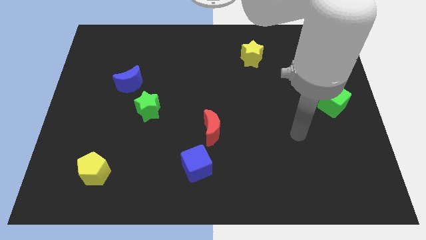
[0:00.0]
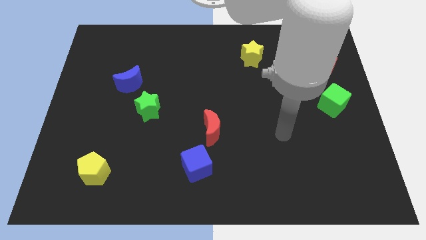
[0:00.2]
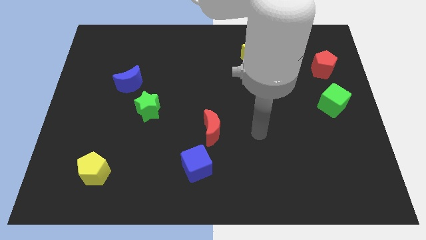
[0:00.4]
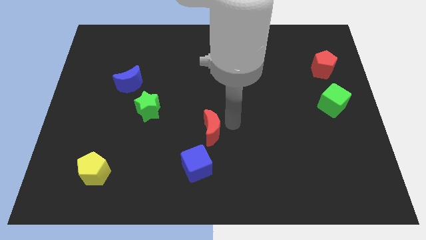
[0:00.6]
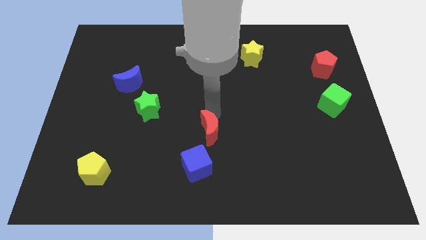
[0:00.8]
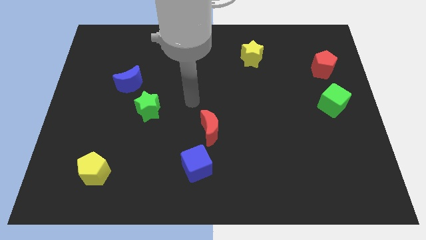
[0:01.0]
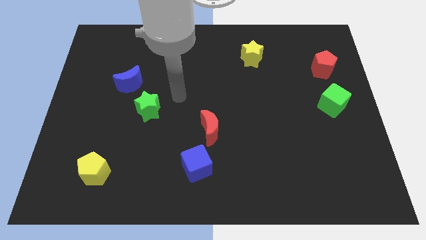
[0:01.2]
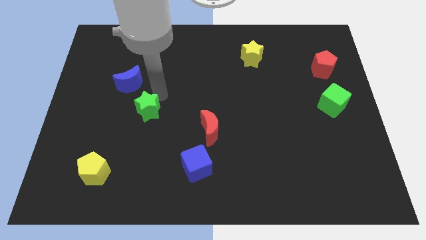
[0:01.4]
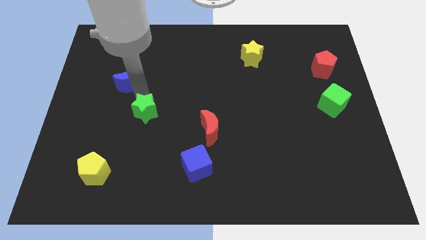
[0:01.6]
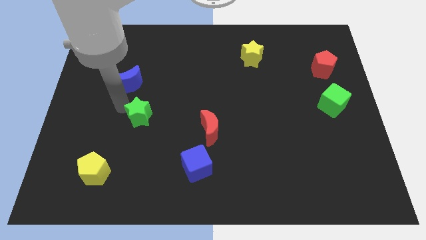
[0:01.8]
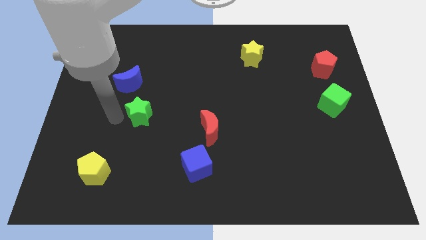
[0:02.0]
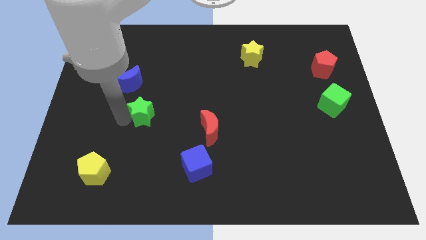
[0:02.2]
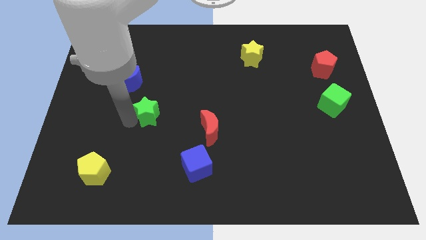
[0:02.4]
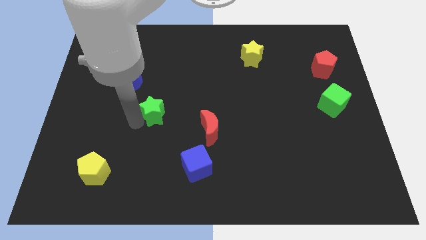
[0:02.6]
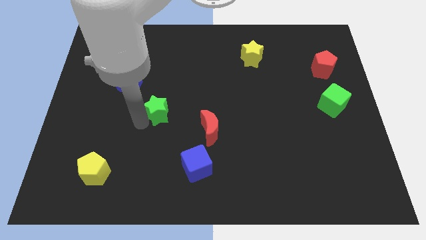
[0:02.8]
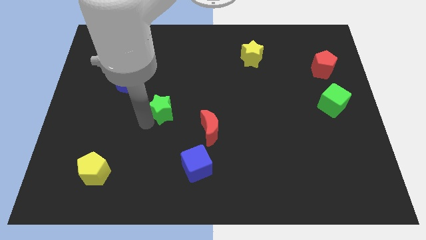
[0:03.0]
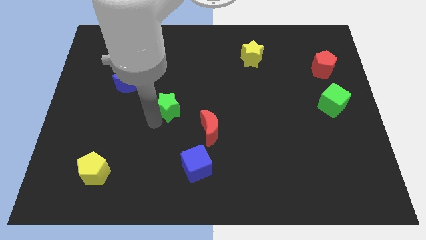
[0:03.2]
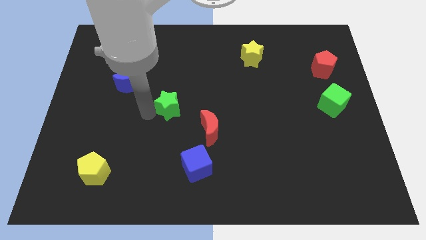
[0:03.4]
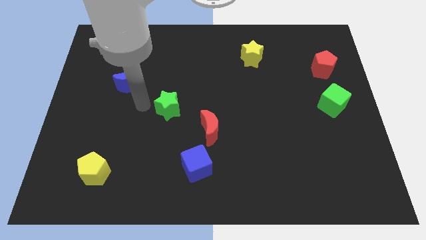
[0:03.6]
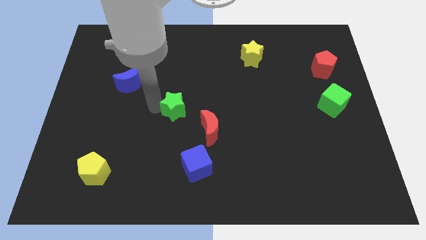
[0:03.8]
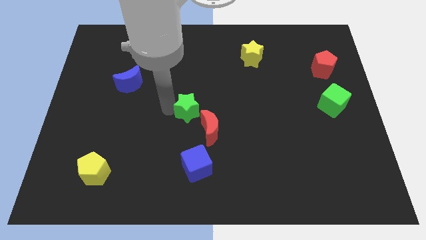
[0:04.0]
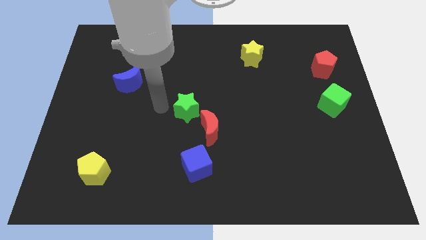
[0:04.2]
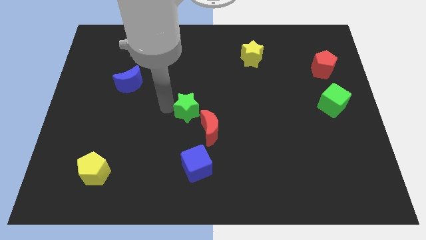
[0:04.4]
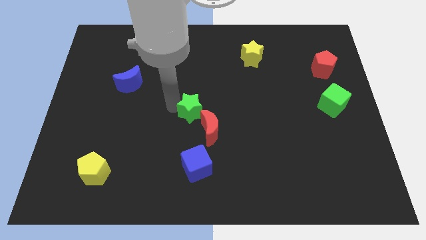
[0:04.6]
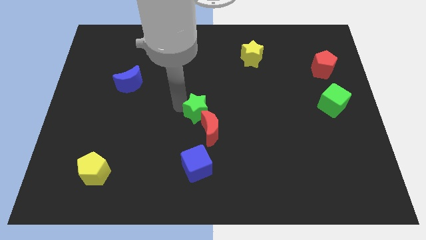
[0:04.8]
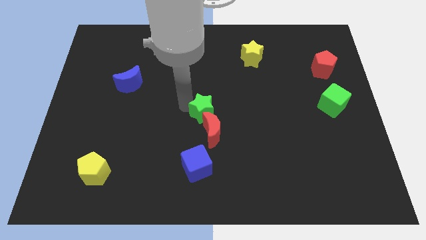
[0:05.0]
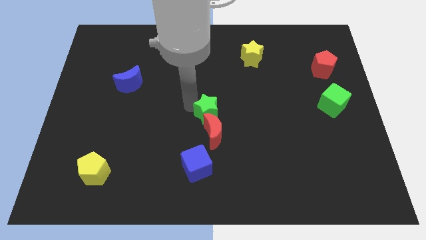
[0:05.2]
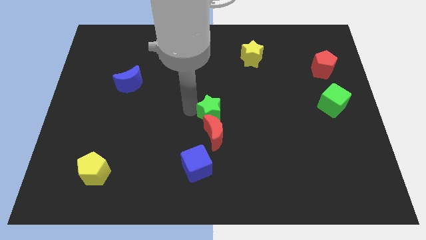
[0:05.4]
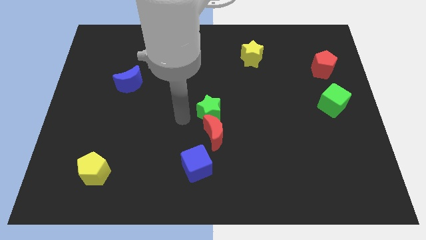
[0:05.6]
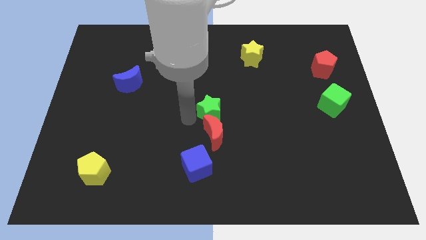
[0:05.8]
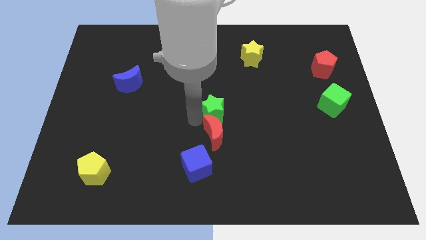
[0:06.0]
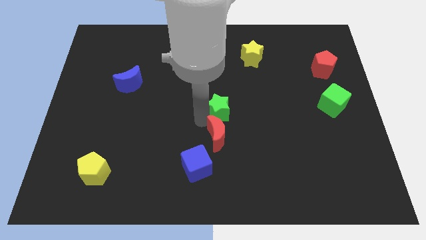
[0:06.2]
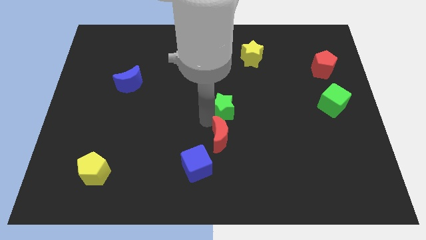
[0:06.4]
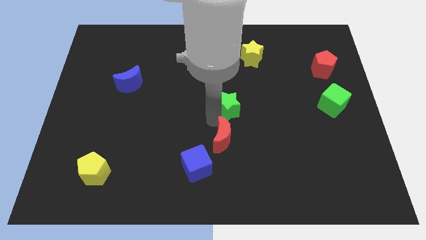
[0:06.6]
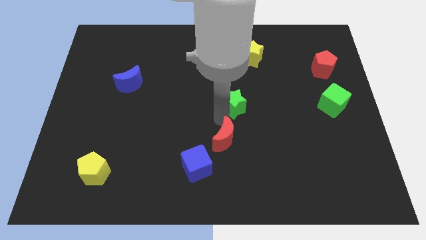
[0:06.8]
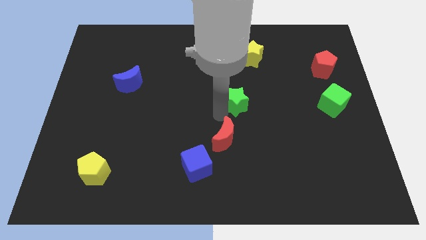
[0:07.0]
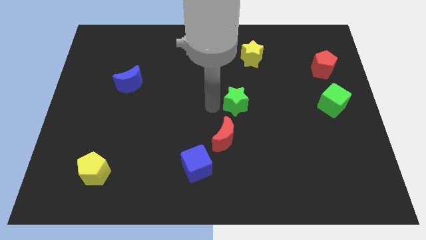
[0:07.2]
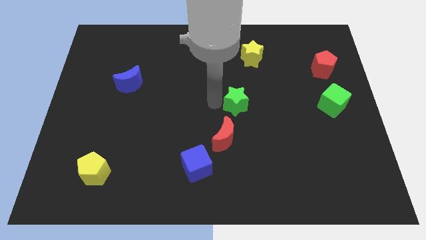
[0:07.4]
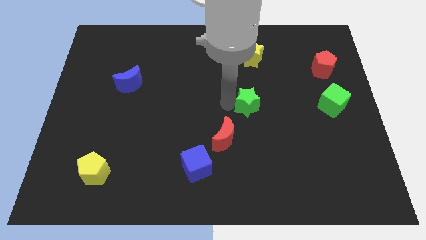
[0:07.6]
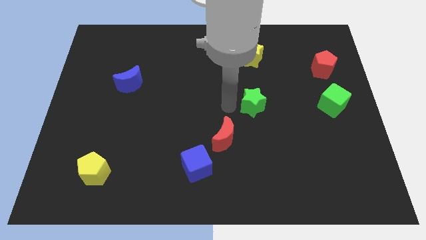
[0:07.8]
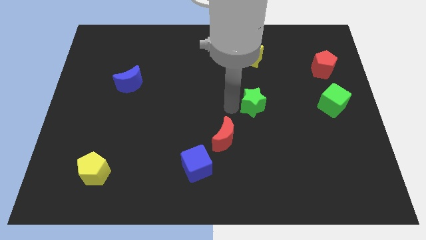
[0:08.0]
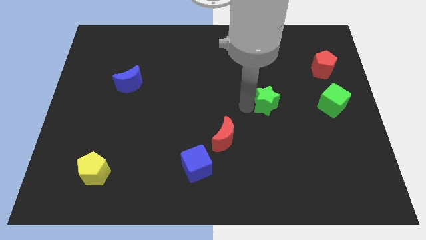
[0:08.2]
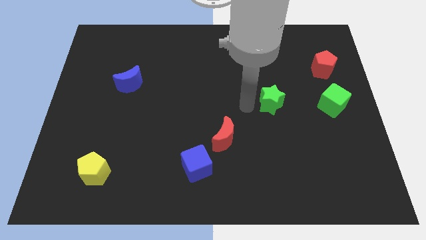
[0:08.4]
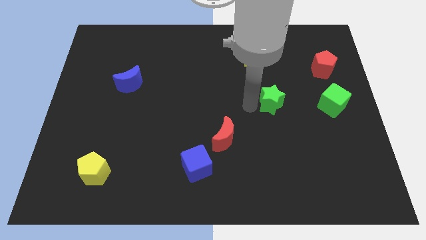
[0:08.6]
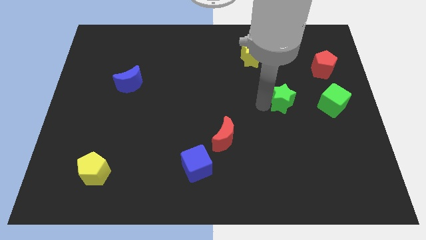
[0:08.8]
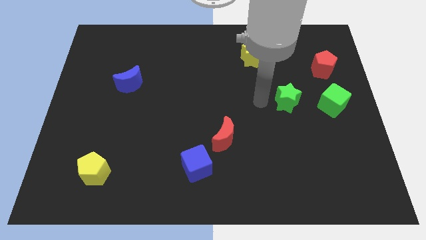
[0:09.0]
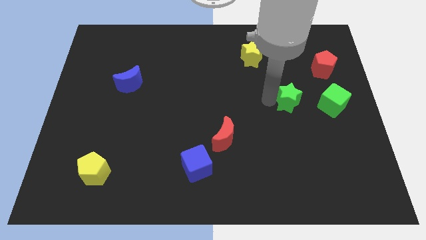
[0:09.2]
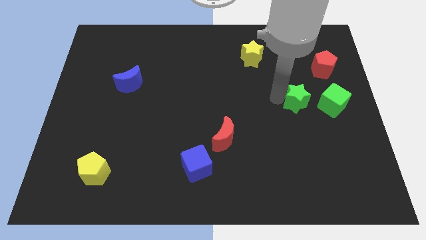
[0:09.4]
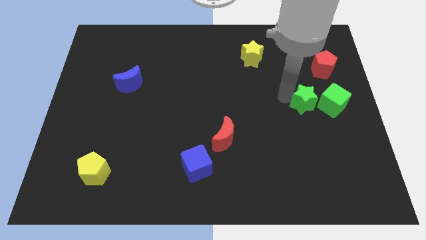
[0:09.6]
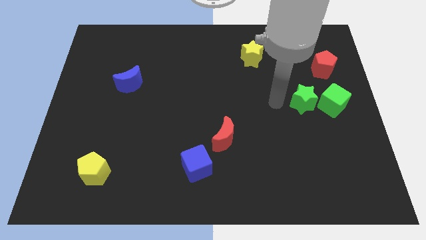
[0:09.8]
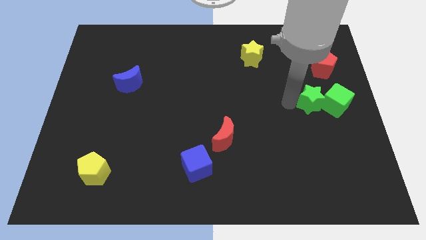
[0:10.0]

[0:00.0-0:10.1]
push the green star next to the green cube

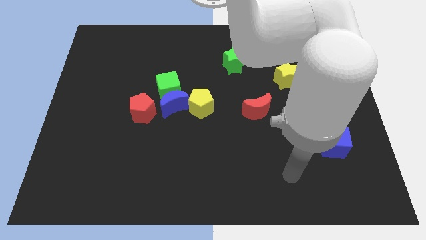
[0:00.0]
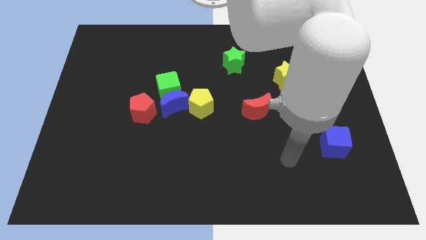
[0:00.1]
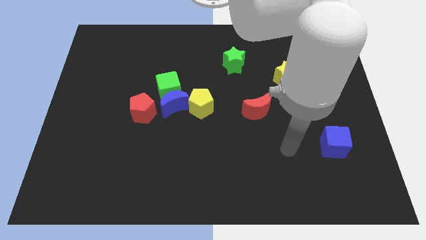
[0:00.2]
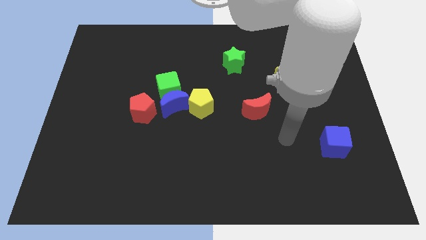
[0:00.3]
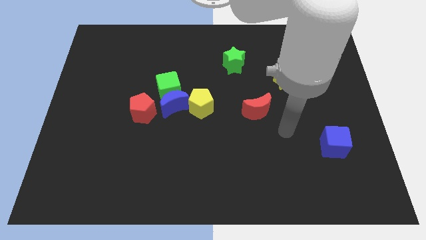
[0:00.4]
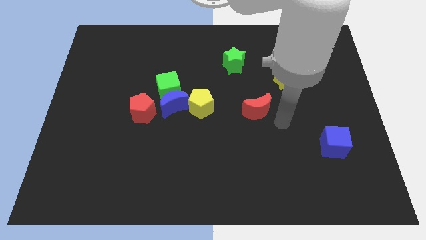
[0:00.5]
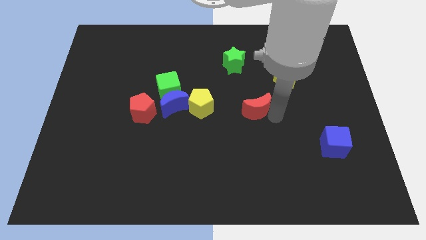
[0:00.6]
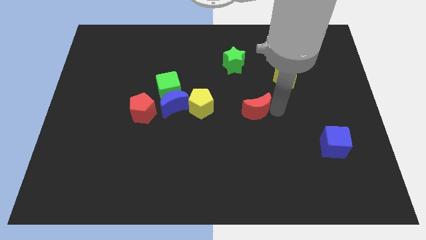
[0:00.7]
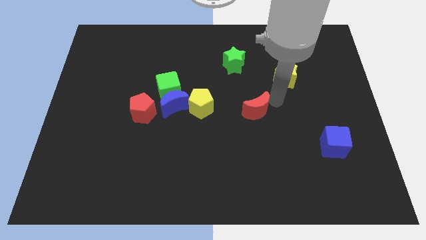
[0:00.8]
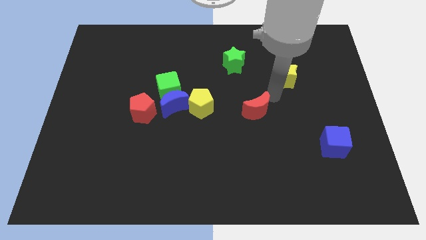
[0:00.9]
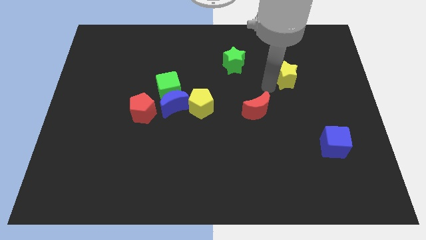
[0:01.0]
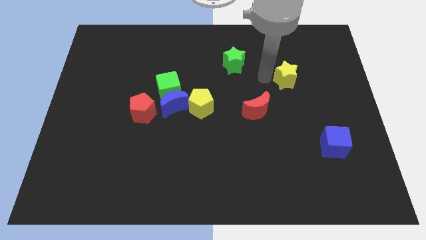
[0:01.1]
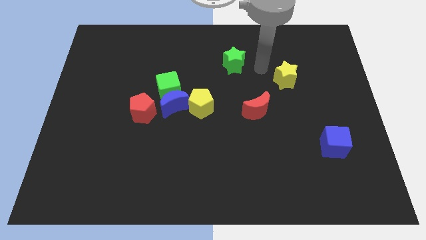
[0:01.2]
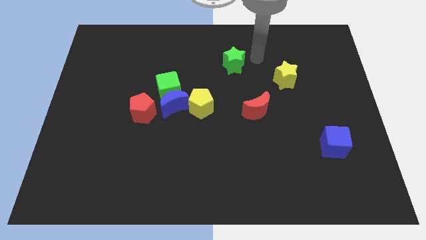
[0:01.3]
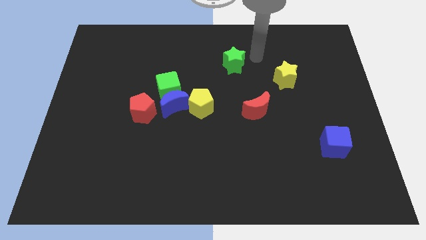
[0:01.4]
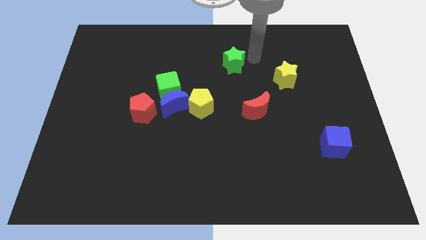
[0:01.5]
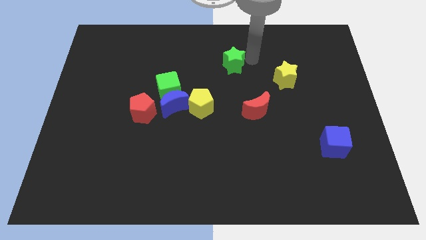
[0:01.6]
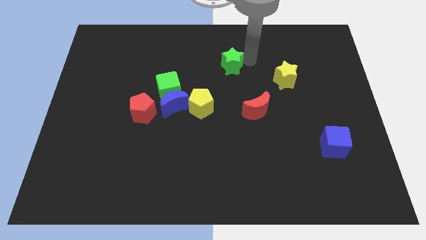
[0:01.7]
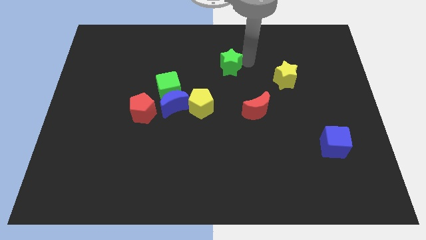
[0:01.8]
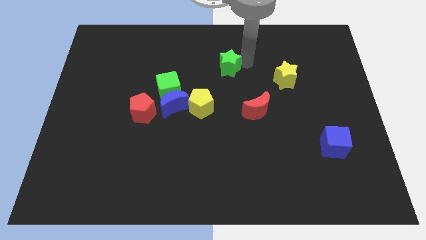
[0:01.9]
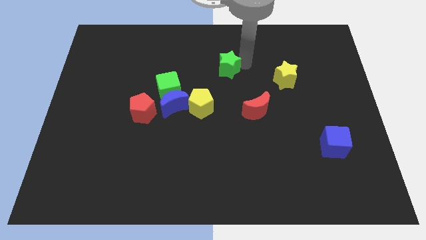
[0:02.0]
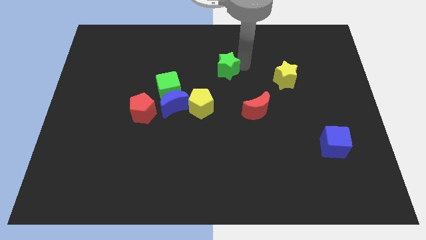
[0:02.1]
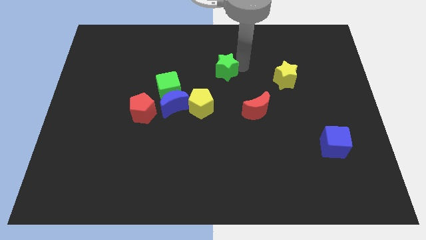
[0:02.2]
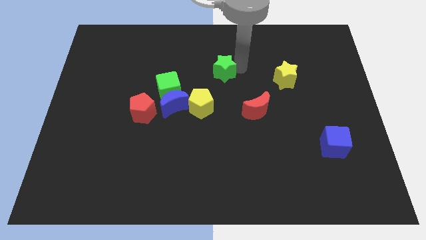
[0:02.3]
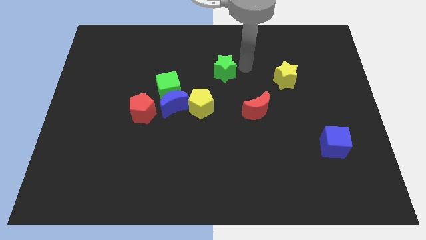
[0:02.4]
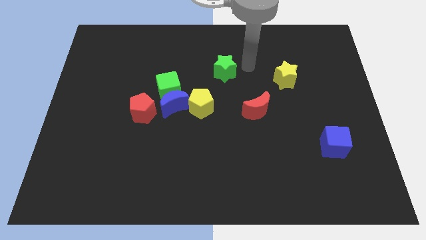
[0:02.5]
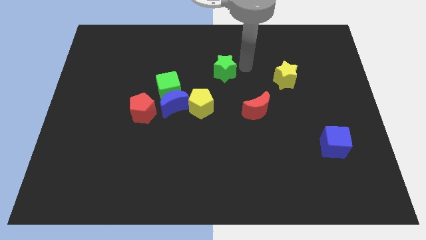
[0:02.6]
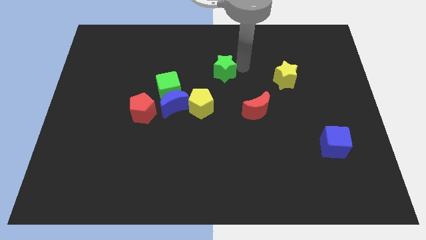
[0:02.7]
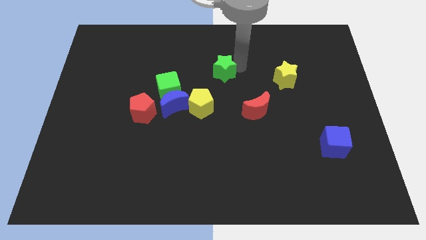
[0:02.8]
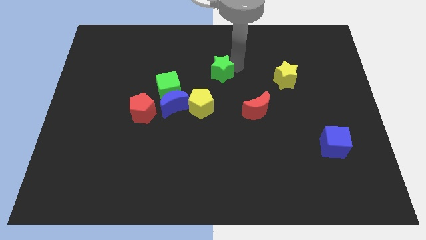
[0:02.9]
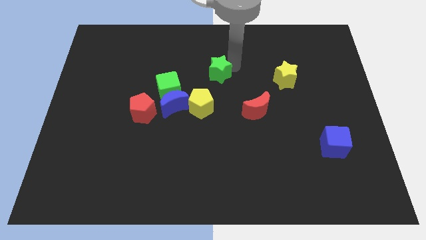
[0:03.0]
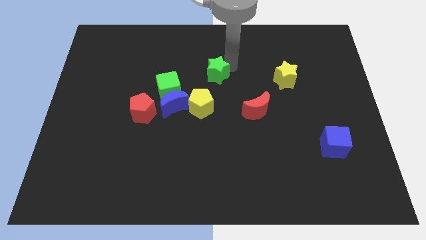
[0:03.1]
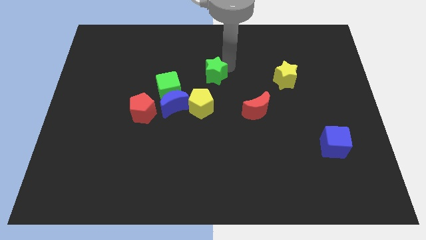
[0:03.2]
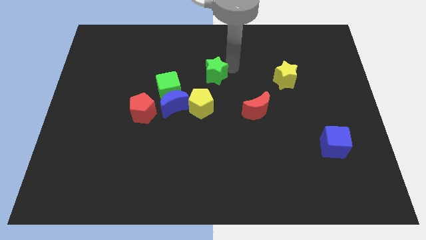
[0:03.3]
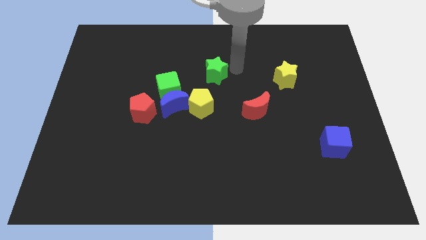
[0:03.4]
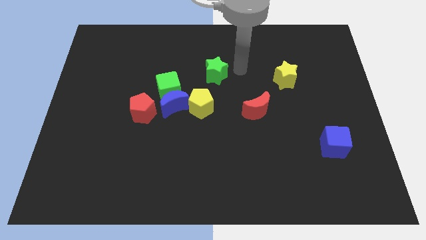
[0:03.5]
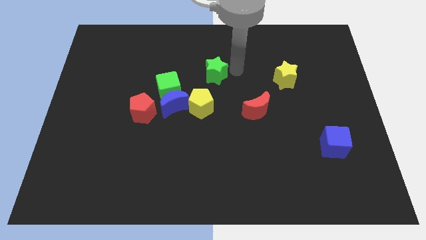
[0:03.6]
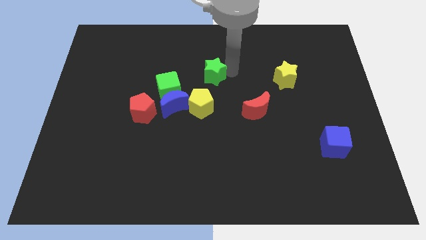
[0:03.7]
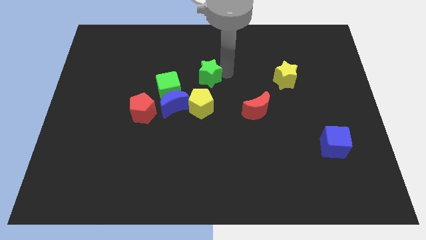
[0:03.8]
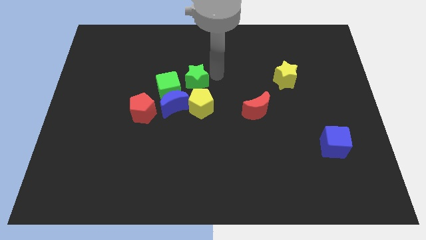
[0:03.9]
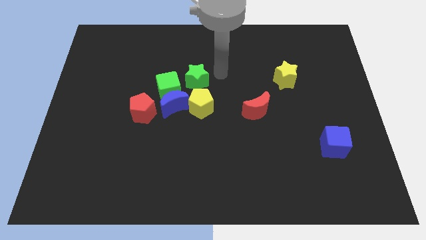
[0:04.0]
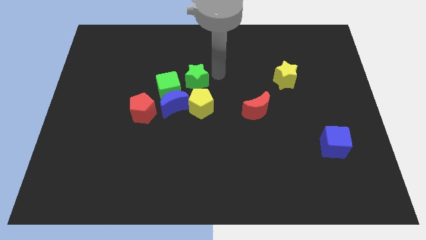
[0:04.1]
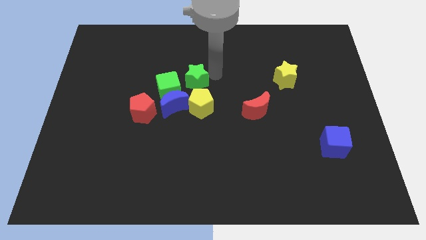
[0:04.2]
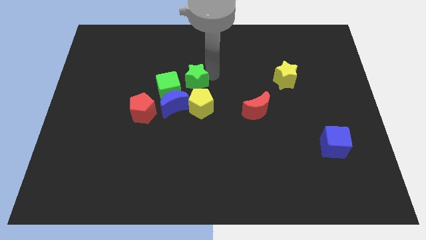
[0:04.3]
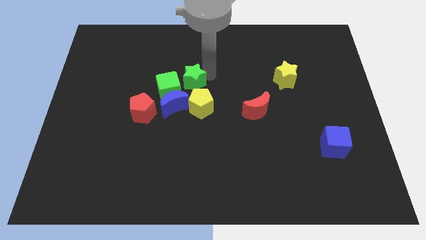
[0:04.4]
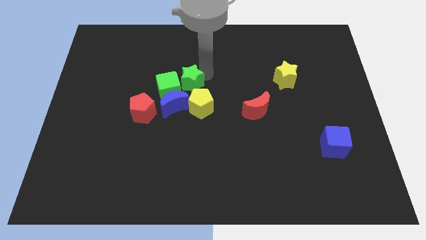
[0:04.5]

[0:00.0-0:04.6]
slide the green star towards the green cube
